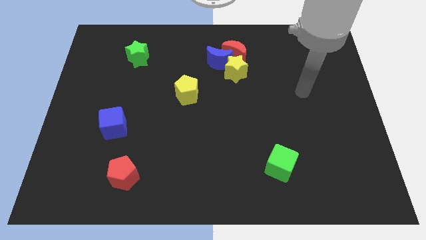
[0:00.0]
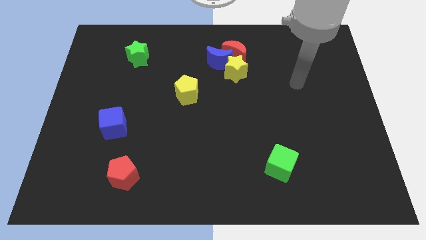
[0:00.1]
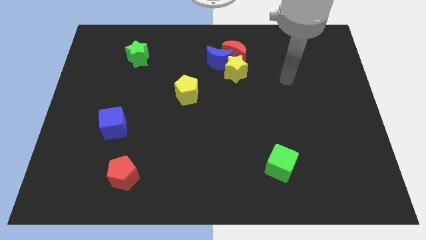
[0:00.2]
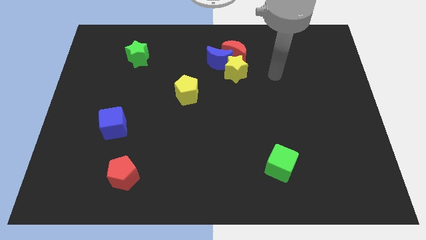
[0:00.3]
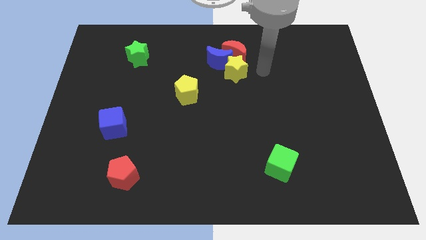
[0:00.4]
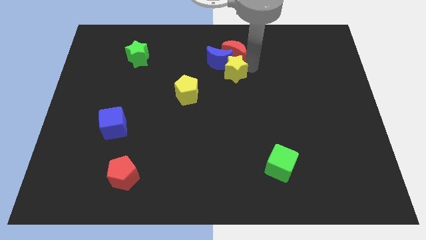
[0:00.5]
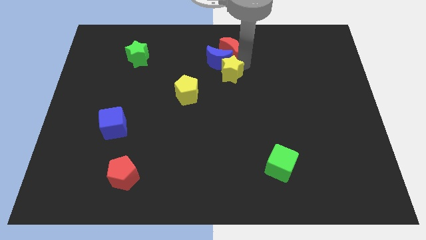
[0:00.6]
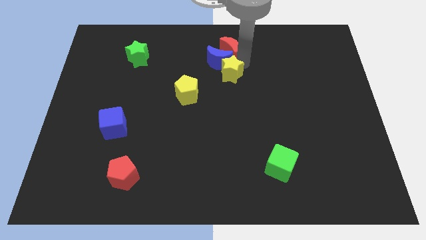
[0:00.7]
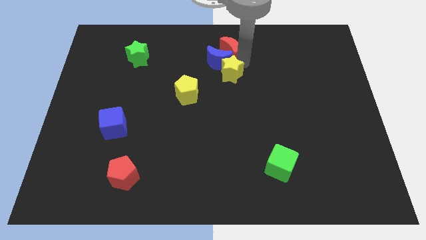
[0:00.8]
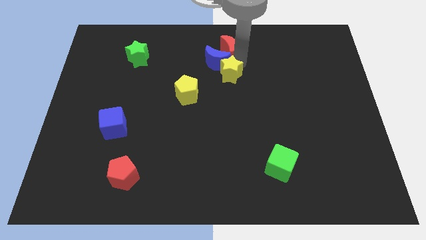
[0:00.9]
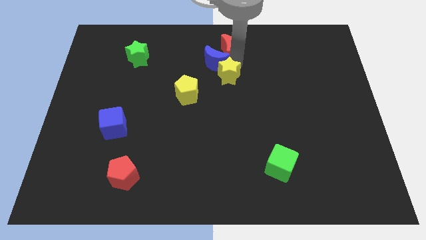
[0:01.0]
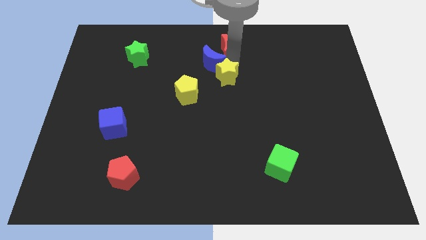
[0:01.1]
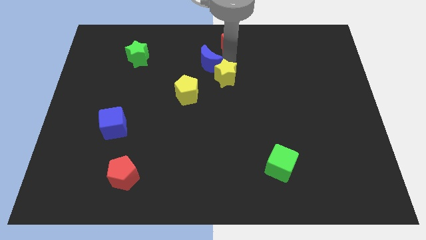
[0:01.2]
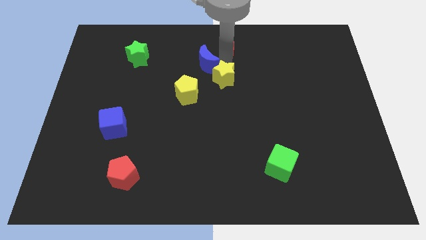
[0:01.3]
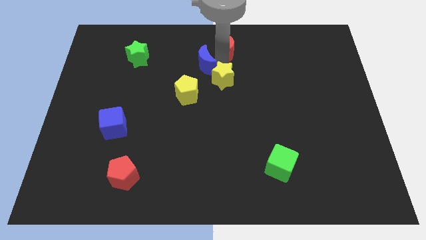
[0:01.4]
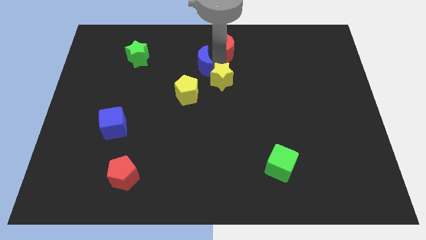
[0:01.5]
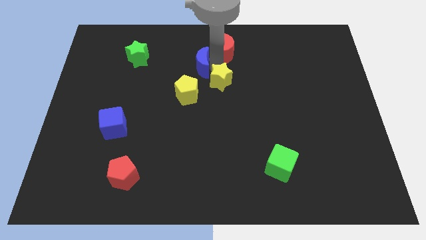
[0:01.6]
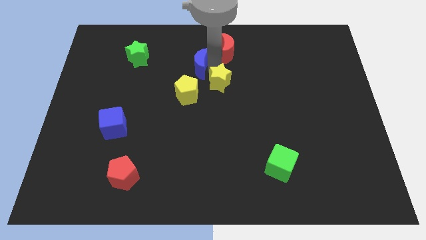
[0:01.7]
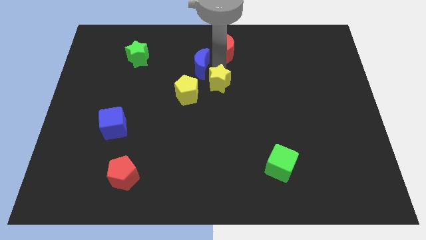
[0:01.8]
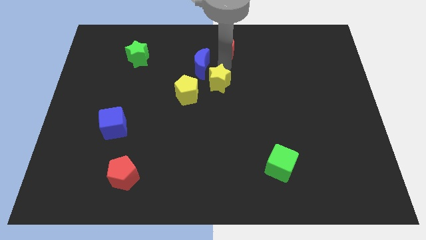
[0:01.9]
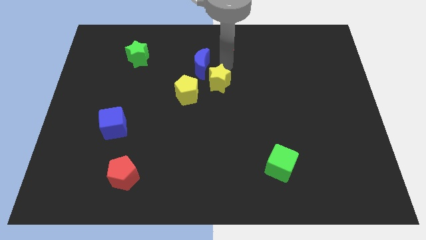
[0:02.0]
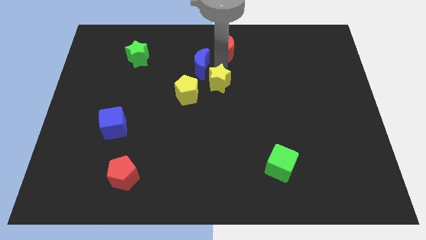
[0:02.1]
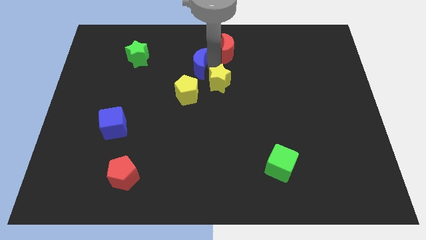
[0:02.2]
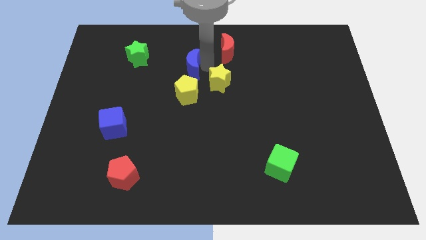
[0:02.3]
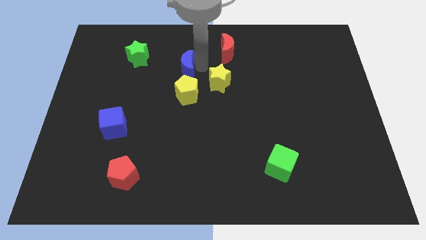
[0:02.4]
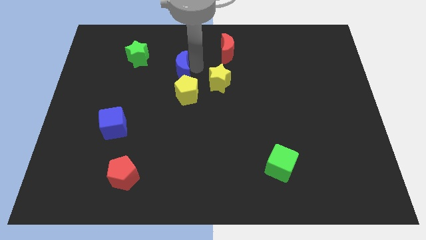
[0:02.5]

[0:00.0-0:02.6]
move the blue moon away from the red moon and yellow star

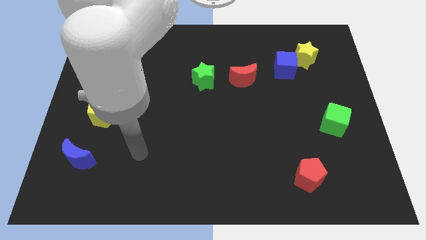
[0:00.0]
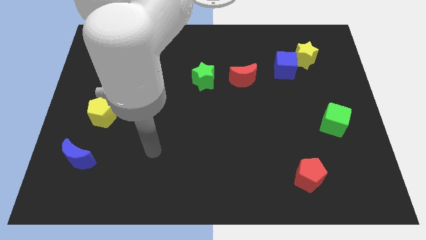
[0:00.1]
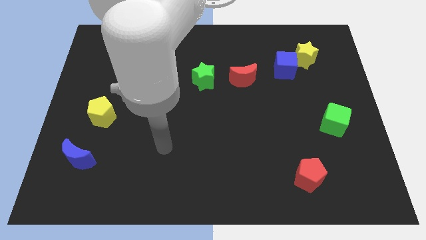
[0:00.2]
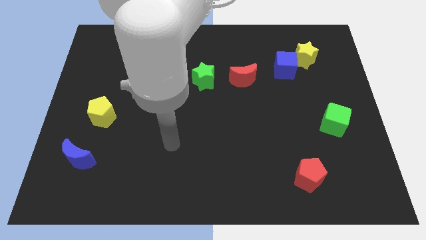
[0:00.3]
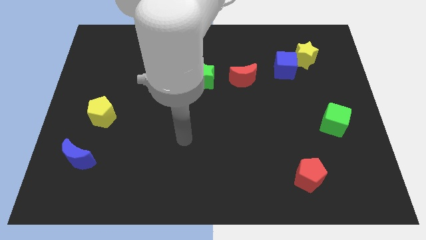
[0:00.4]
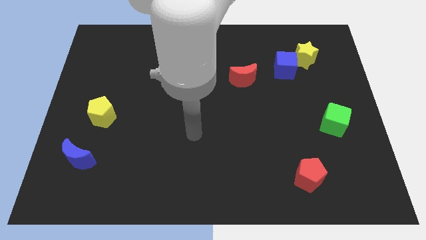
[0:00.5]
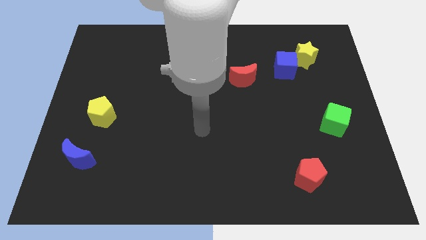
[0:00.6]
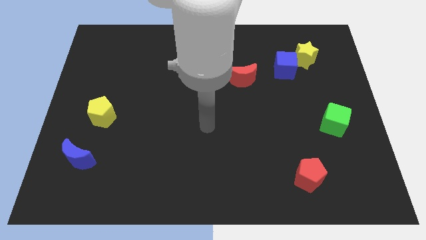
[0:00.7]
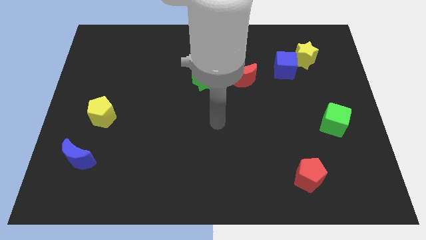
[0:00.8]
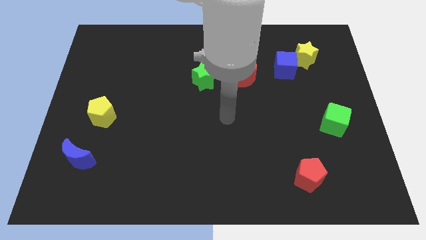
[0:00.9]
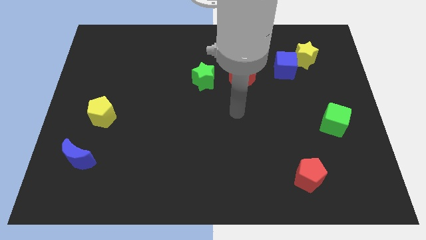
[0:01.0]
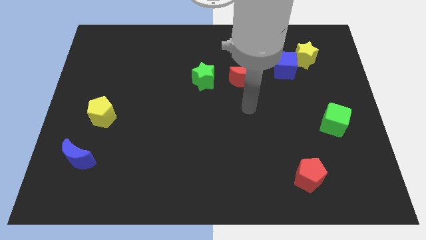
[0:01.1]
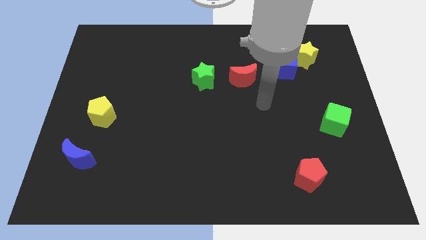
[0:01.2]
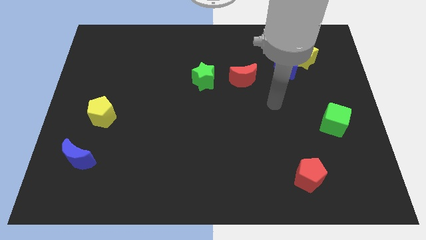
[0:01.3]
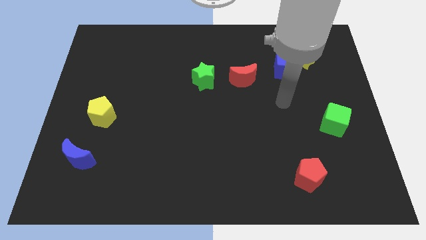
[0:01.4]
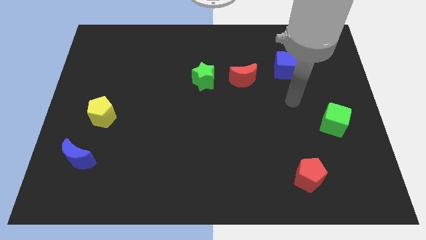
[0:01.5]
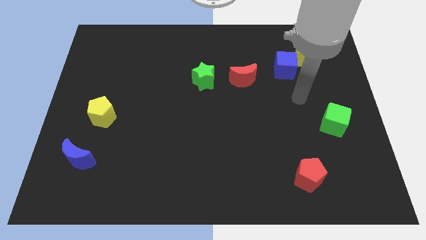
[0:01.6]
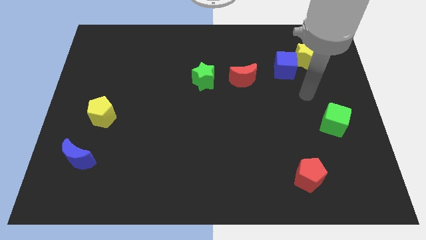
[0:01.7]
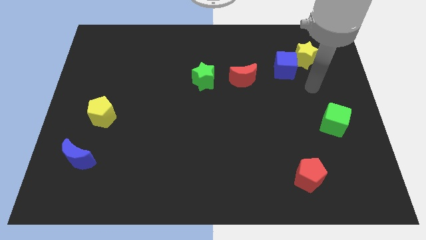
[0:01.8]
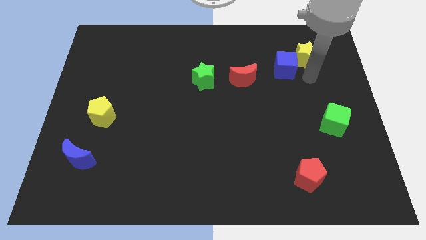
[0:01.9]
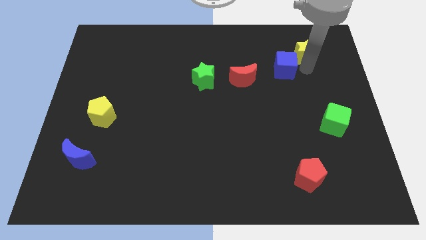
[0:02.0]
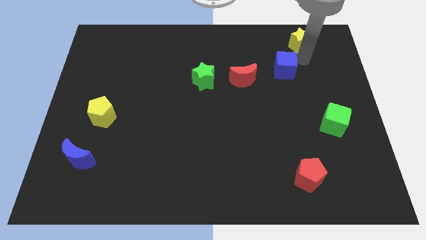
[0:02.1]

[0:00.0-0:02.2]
separate the blue cube from the yellow star

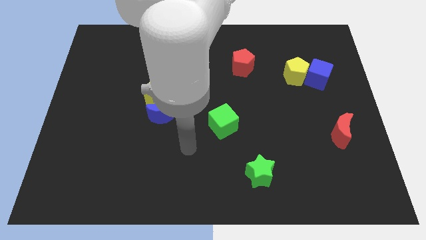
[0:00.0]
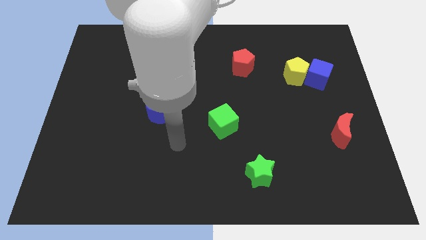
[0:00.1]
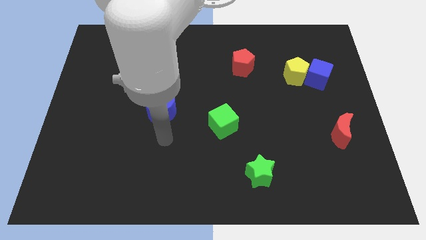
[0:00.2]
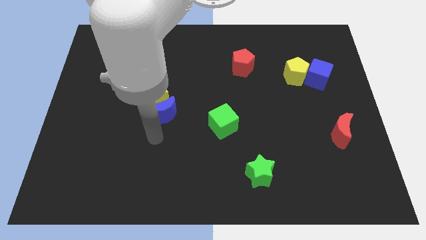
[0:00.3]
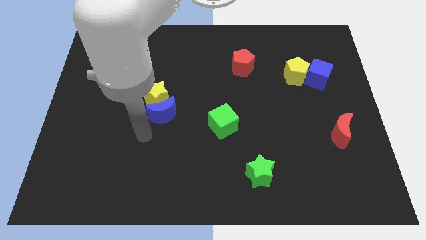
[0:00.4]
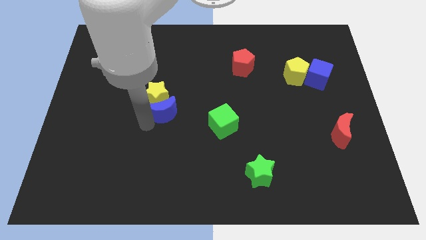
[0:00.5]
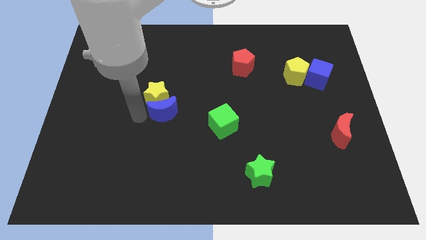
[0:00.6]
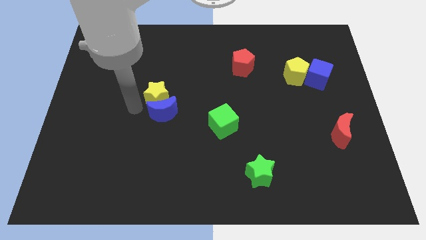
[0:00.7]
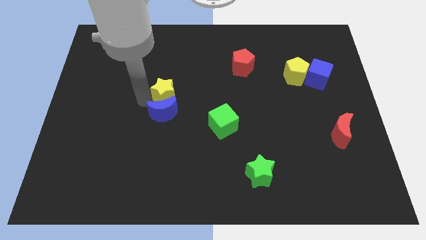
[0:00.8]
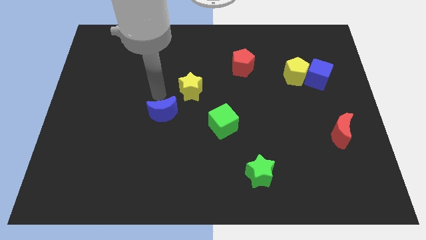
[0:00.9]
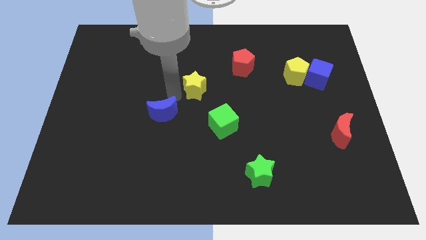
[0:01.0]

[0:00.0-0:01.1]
separate the blue moon from the yellow star

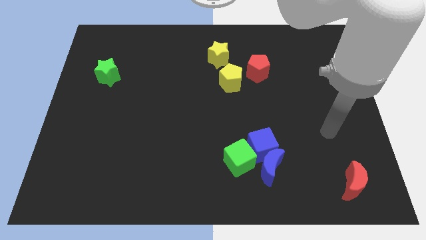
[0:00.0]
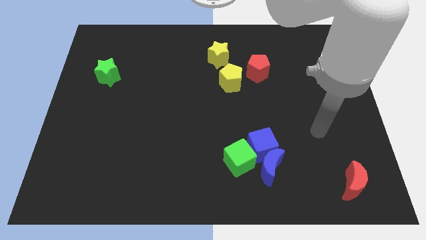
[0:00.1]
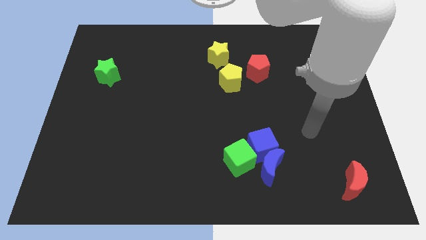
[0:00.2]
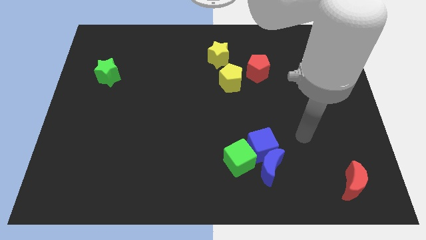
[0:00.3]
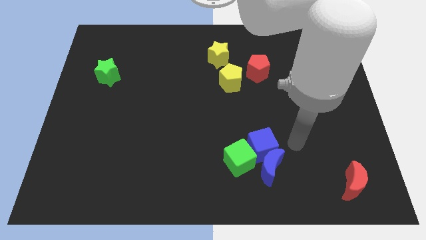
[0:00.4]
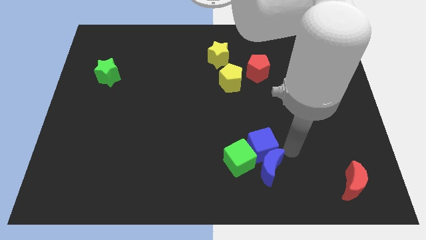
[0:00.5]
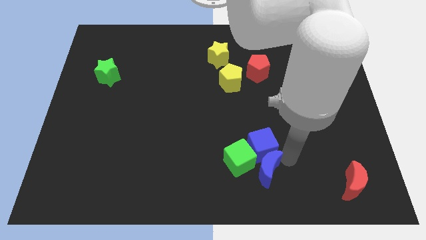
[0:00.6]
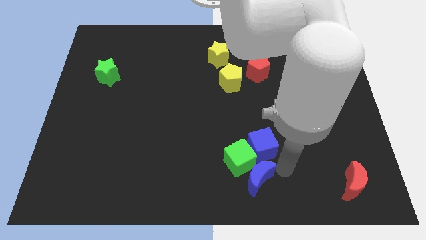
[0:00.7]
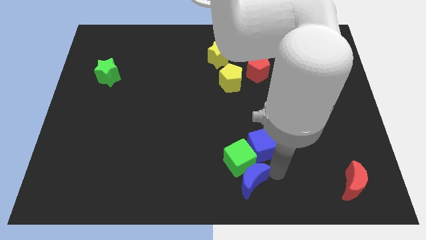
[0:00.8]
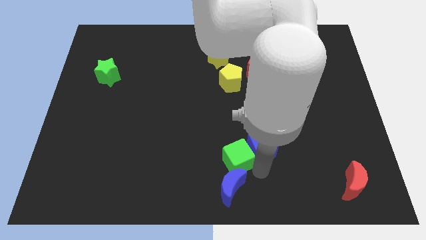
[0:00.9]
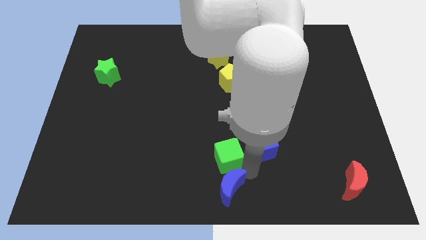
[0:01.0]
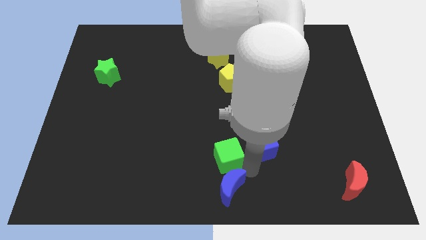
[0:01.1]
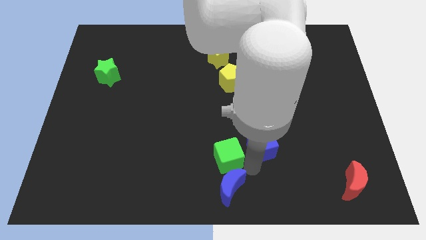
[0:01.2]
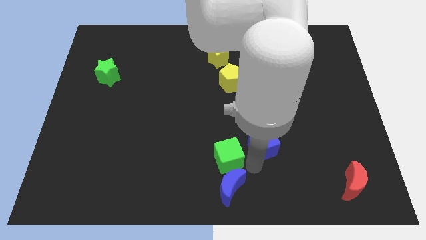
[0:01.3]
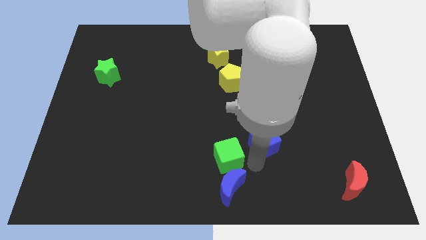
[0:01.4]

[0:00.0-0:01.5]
separate the blue cube from the blue moon and green cube

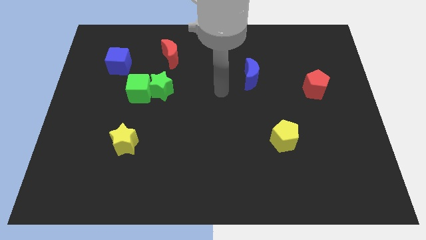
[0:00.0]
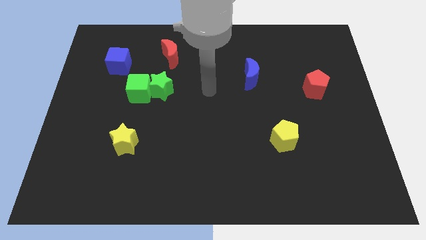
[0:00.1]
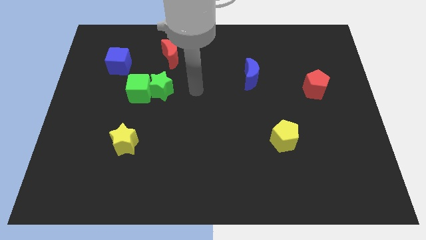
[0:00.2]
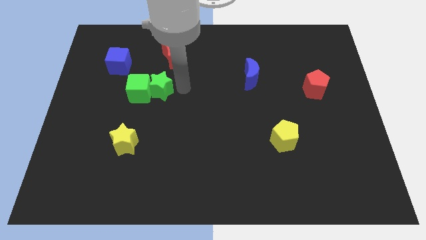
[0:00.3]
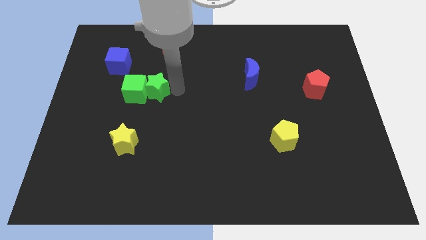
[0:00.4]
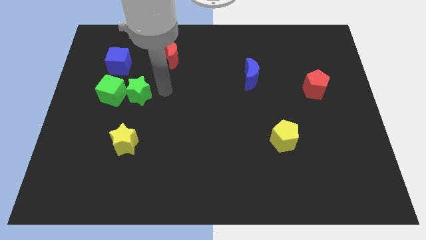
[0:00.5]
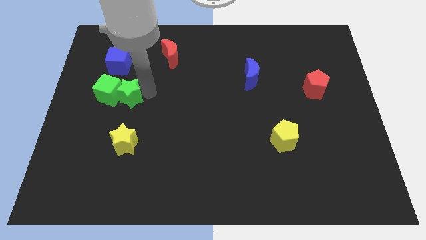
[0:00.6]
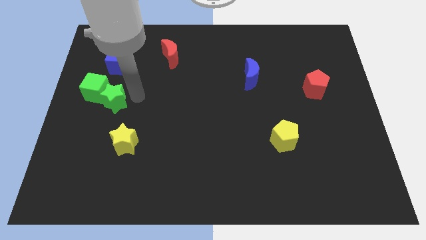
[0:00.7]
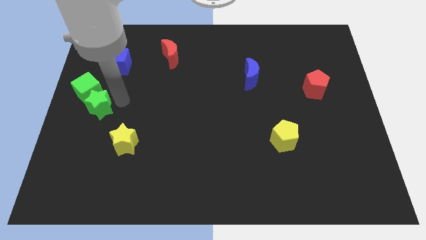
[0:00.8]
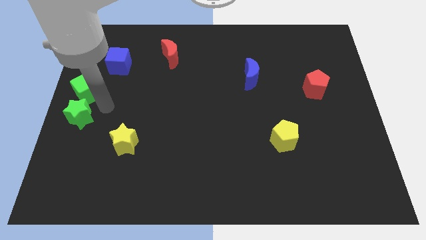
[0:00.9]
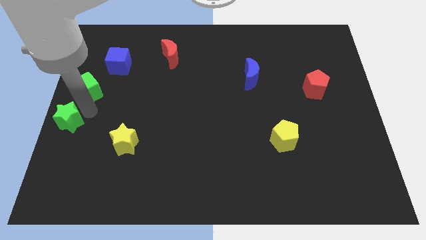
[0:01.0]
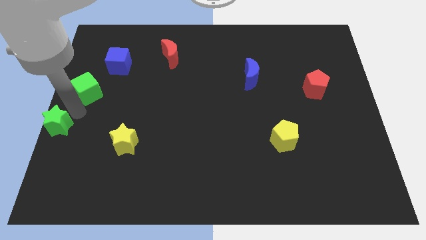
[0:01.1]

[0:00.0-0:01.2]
separate the green cube from the green star

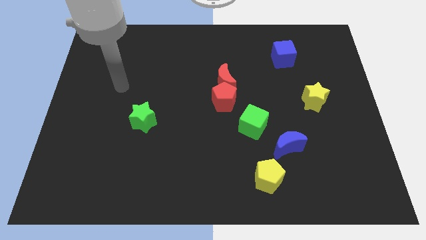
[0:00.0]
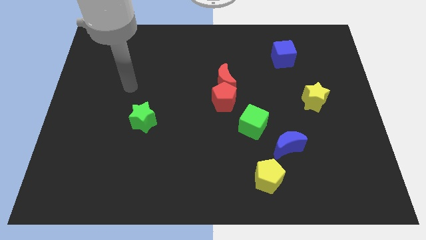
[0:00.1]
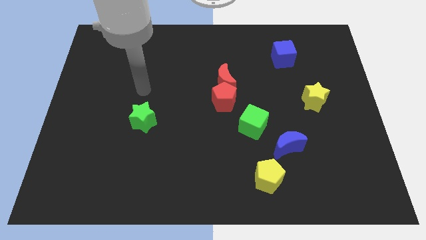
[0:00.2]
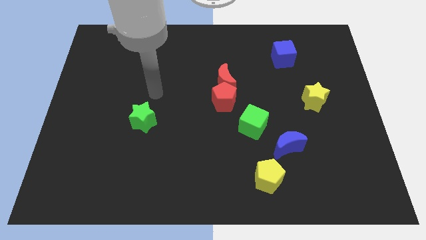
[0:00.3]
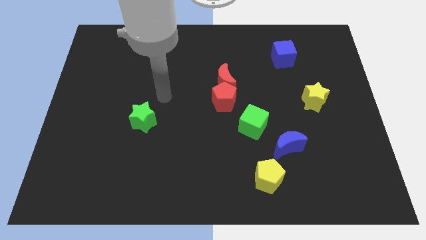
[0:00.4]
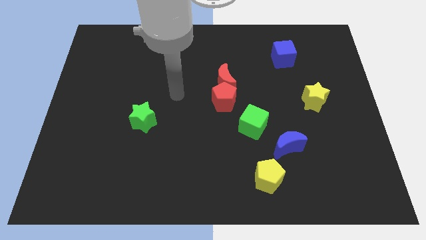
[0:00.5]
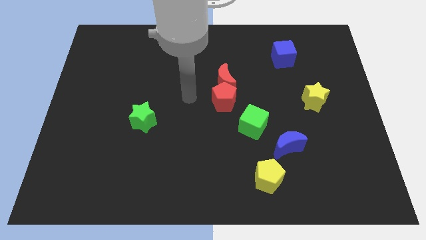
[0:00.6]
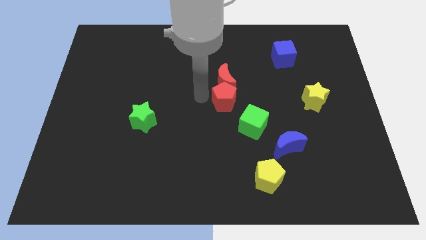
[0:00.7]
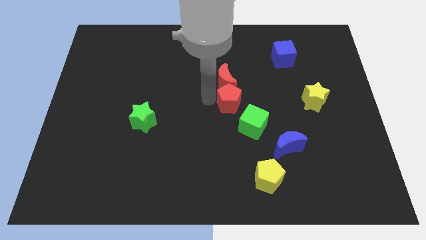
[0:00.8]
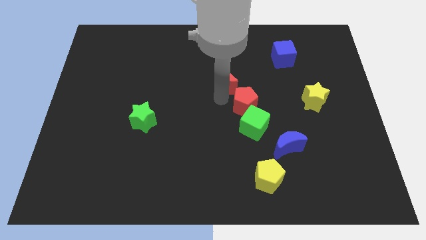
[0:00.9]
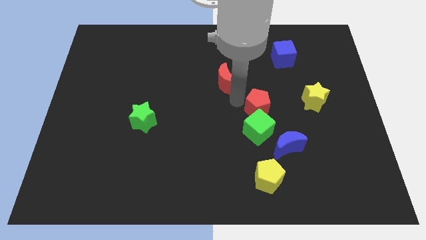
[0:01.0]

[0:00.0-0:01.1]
separate the red moon from the red pentagon
